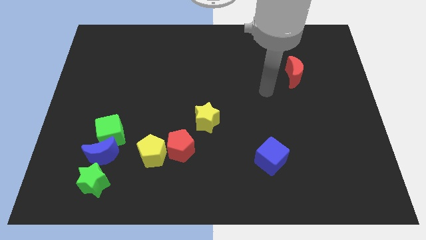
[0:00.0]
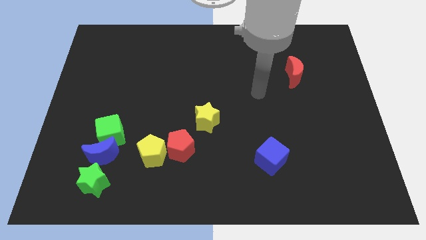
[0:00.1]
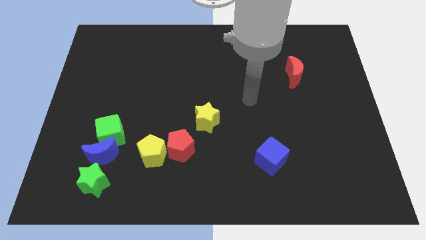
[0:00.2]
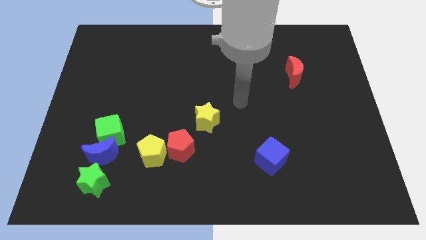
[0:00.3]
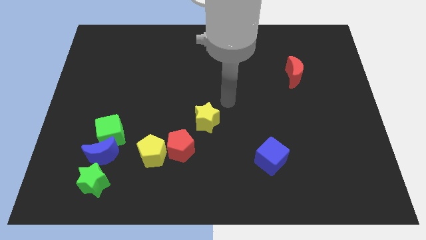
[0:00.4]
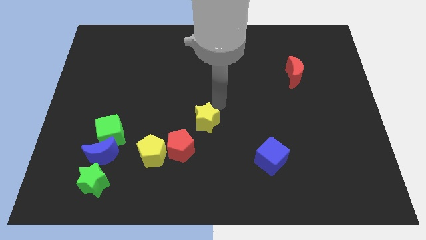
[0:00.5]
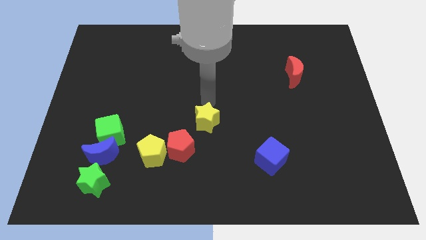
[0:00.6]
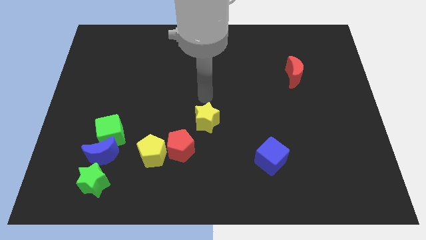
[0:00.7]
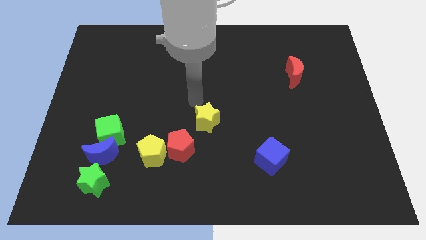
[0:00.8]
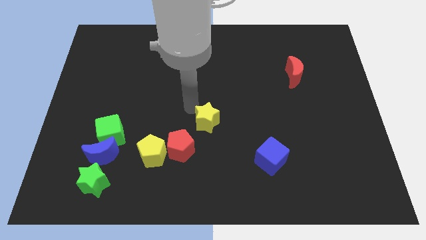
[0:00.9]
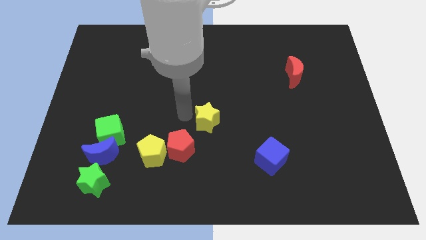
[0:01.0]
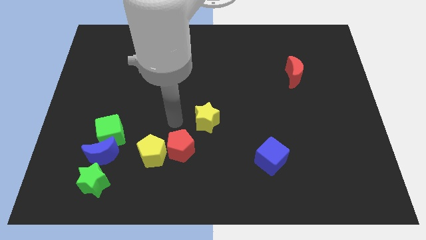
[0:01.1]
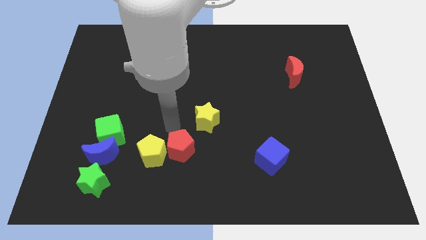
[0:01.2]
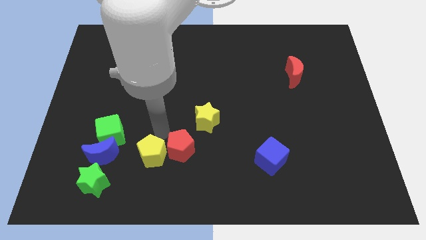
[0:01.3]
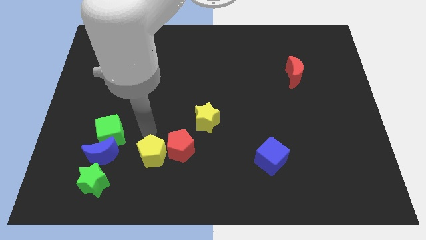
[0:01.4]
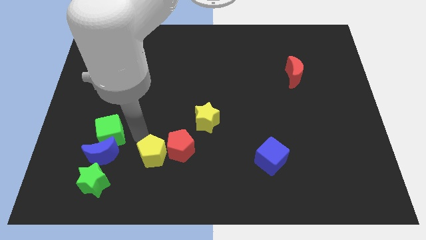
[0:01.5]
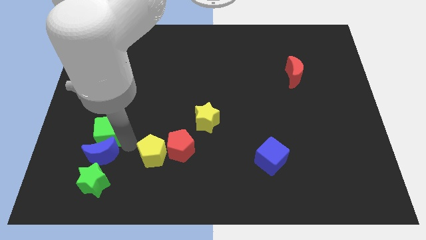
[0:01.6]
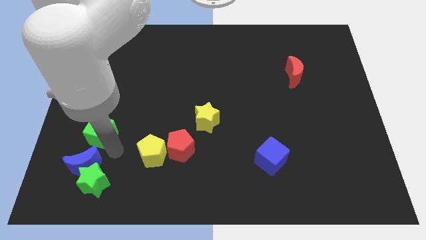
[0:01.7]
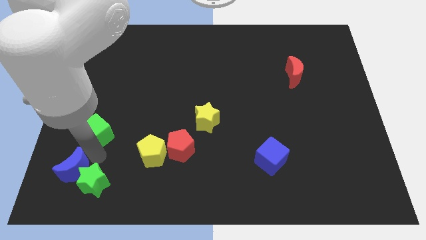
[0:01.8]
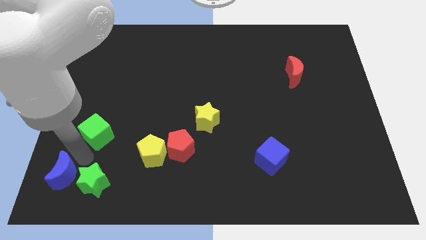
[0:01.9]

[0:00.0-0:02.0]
separate the green cube from the blue moon

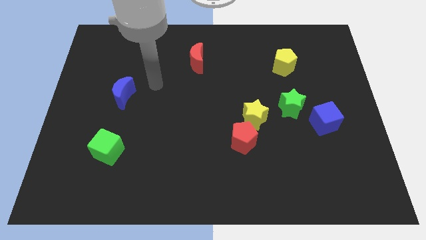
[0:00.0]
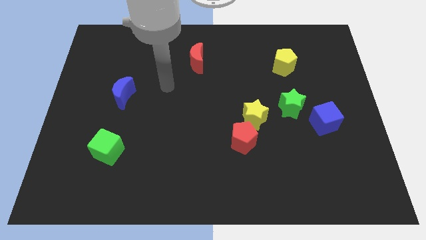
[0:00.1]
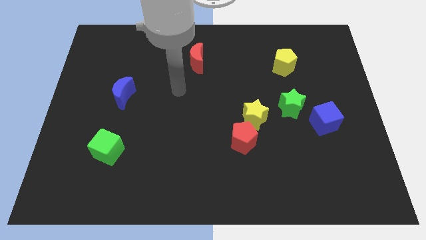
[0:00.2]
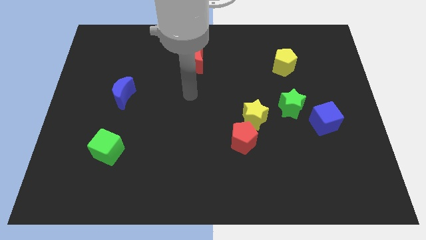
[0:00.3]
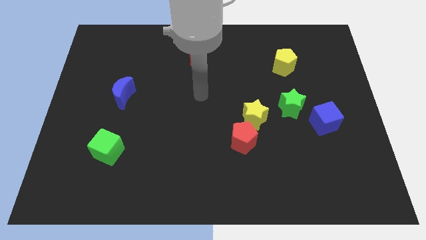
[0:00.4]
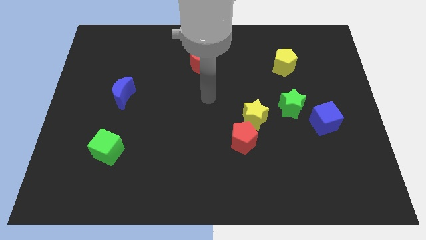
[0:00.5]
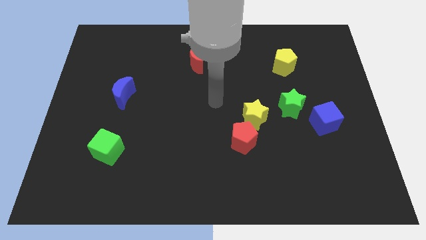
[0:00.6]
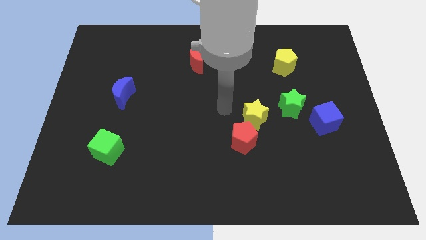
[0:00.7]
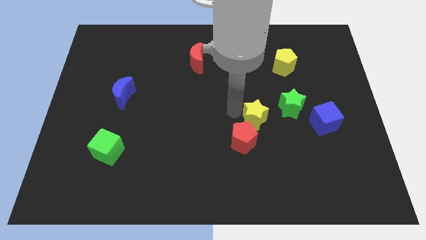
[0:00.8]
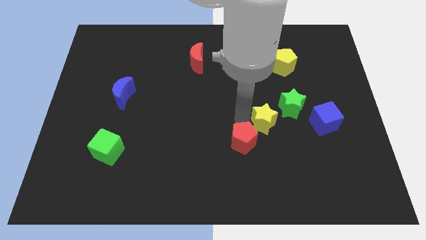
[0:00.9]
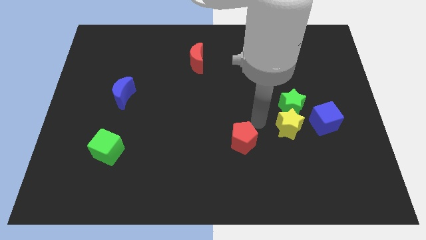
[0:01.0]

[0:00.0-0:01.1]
pull the red pentagon apart from the yellow star

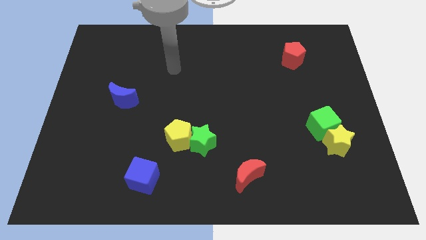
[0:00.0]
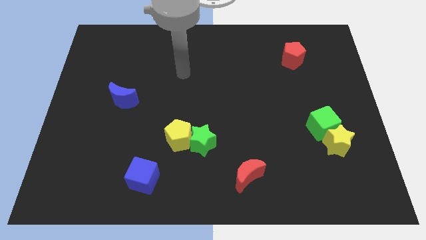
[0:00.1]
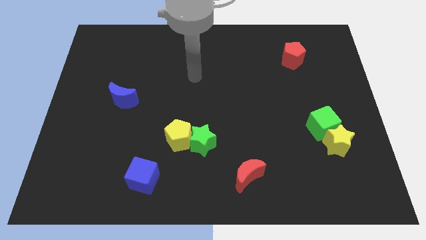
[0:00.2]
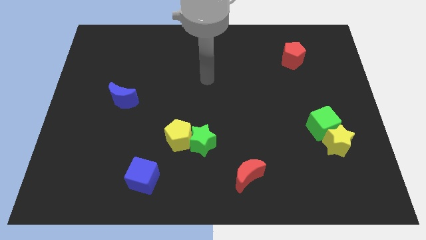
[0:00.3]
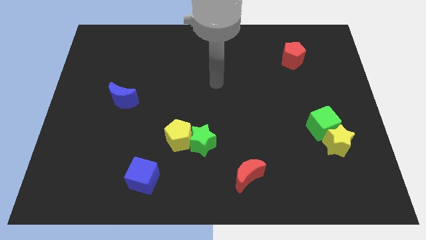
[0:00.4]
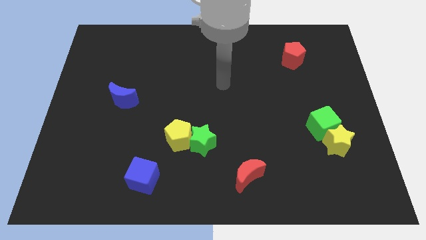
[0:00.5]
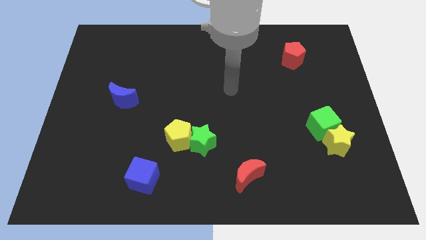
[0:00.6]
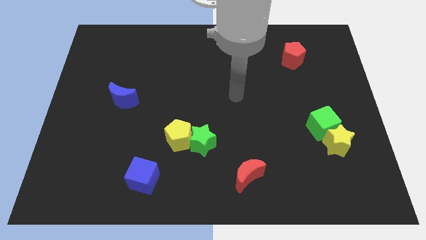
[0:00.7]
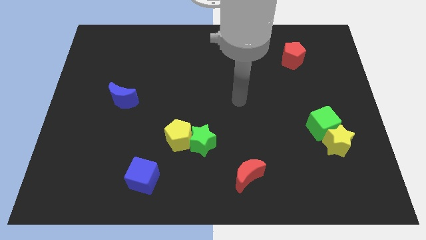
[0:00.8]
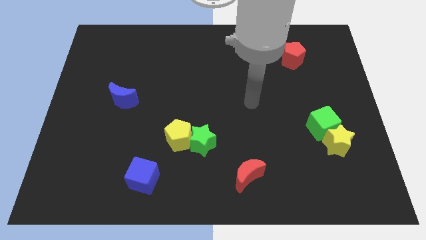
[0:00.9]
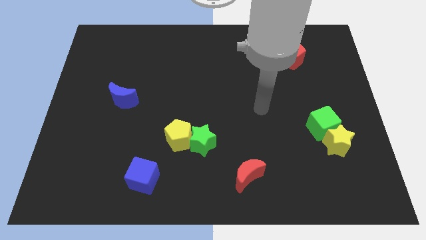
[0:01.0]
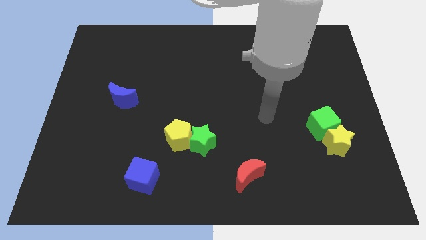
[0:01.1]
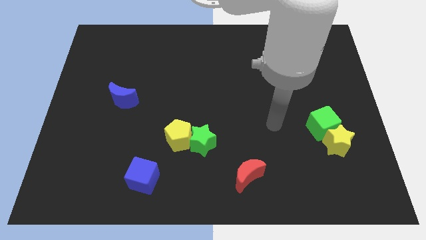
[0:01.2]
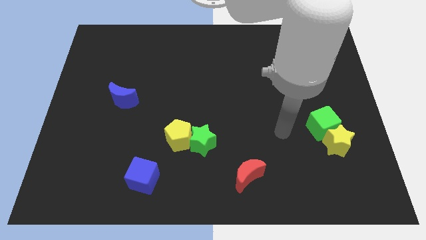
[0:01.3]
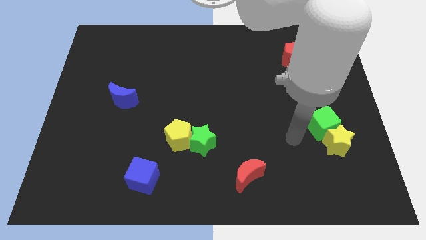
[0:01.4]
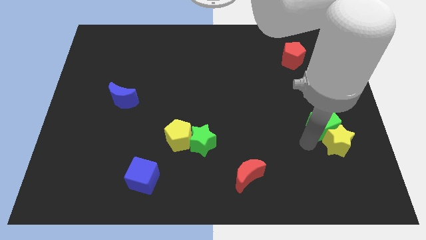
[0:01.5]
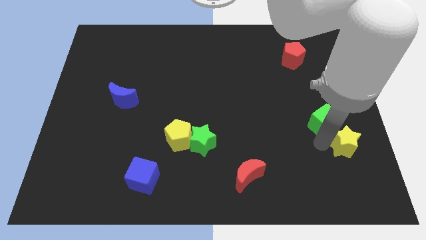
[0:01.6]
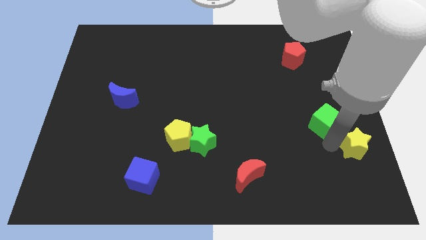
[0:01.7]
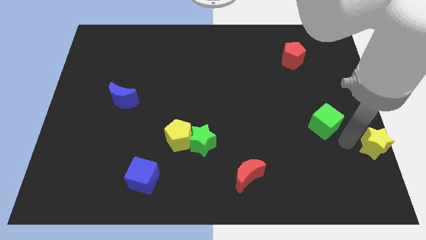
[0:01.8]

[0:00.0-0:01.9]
move the green cube away from the yellow star

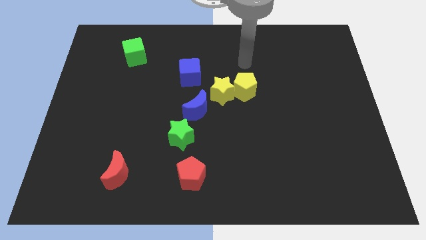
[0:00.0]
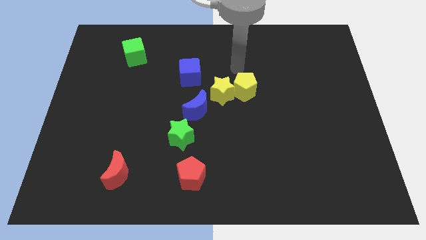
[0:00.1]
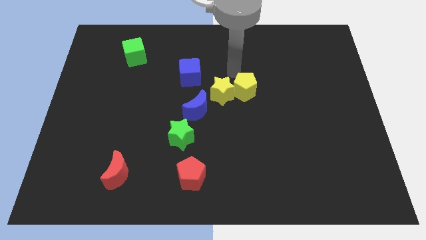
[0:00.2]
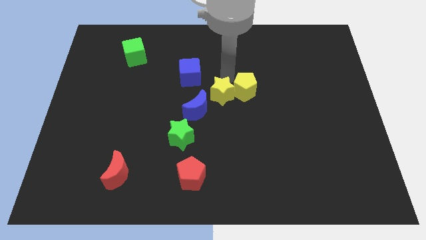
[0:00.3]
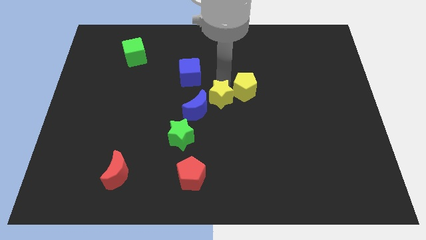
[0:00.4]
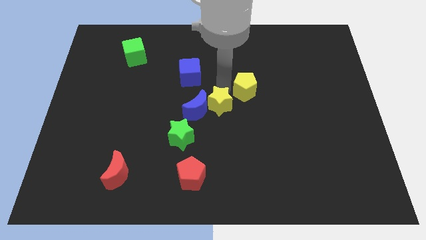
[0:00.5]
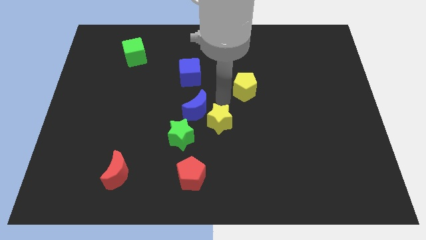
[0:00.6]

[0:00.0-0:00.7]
pull the yellow pentagon apart from the yellow star

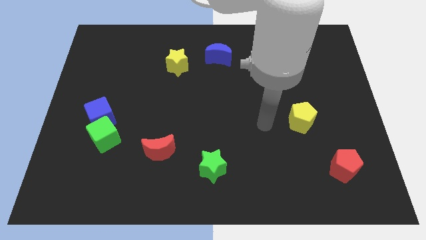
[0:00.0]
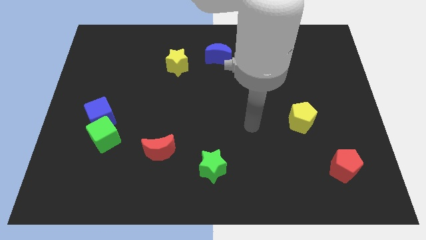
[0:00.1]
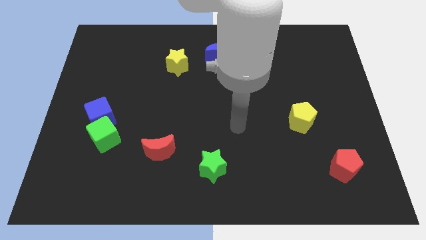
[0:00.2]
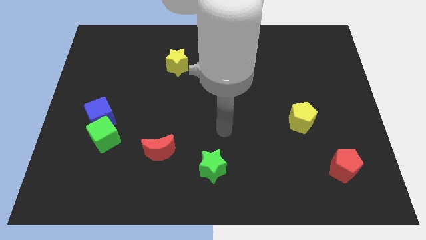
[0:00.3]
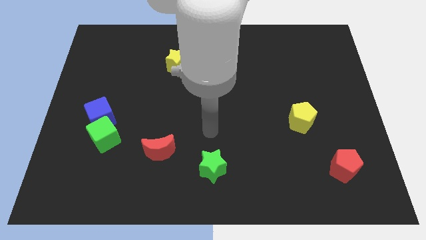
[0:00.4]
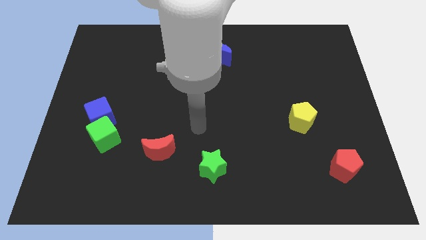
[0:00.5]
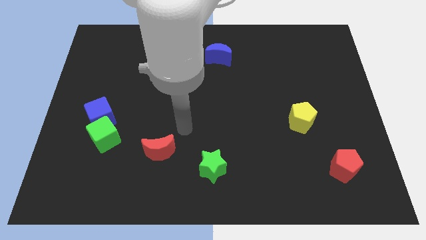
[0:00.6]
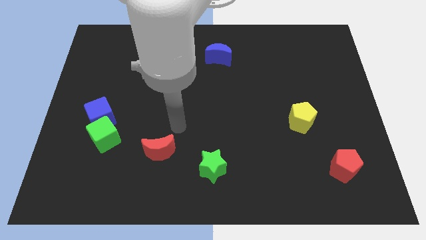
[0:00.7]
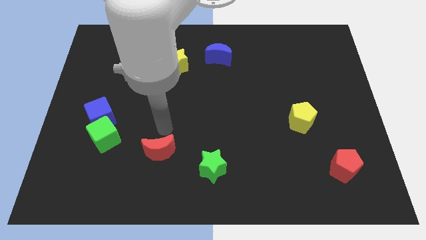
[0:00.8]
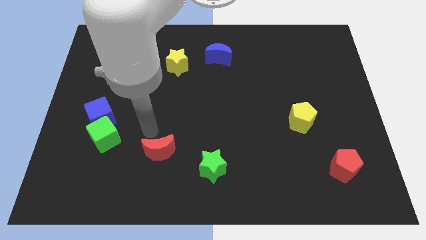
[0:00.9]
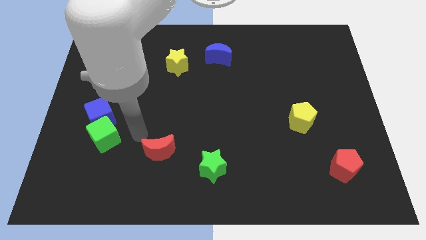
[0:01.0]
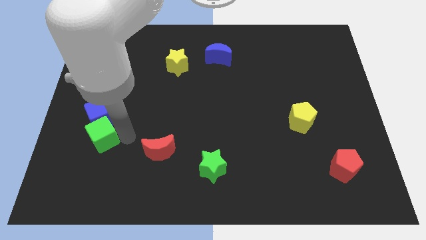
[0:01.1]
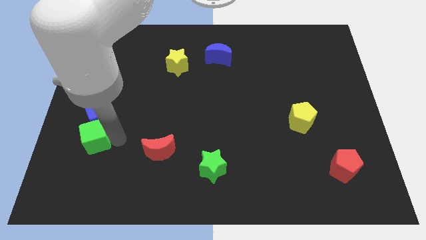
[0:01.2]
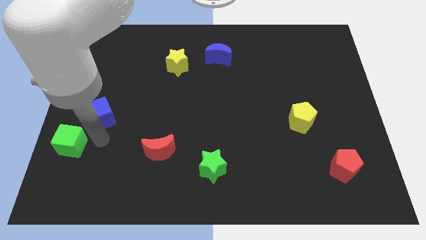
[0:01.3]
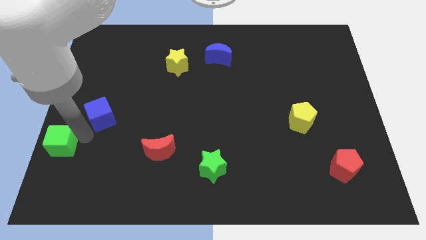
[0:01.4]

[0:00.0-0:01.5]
pull the blue cube apart from the green cube

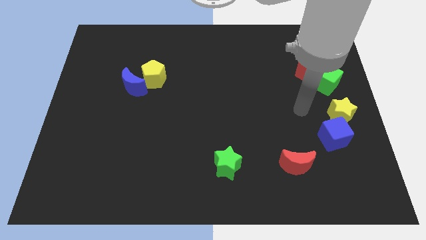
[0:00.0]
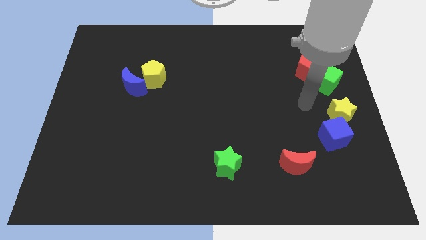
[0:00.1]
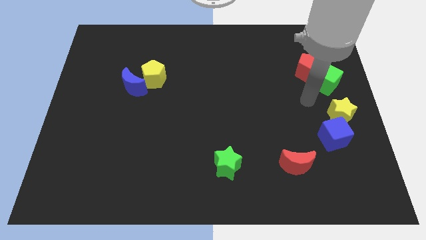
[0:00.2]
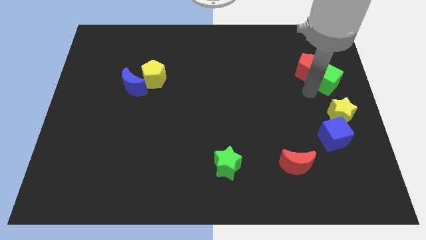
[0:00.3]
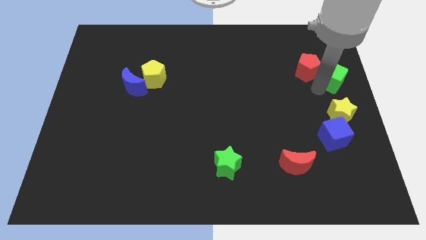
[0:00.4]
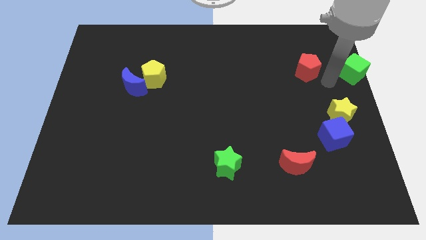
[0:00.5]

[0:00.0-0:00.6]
move the red pentagon away from the green cube

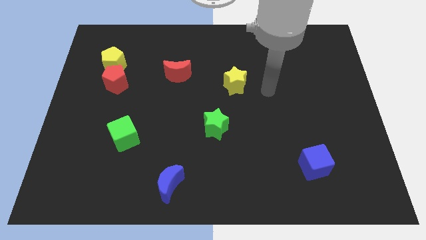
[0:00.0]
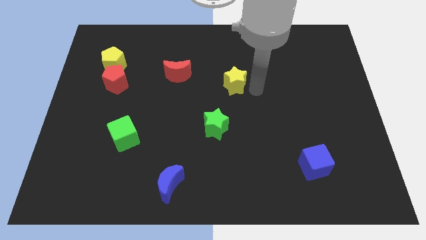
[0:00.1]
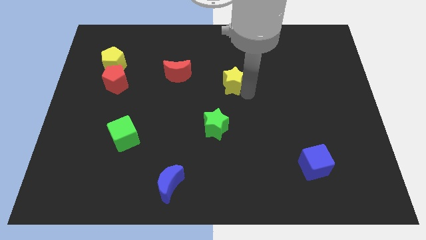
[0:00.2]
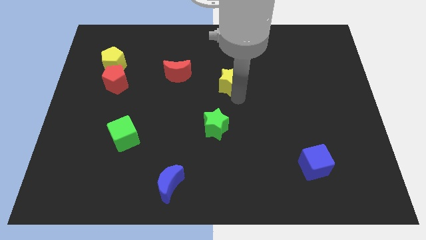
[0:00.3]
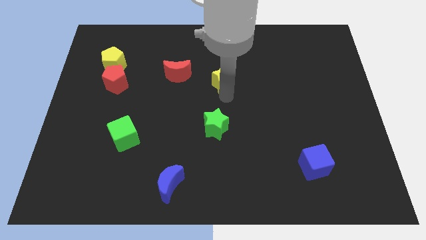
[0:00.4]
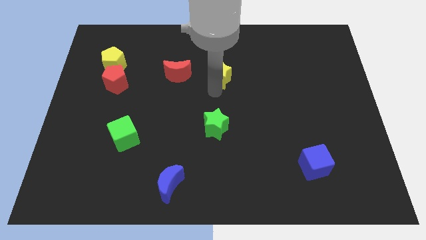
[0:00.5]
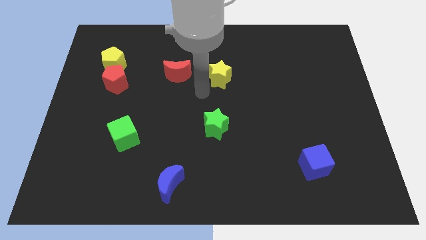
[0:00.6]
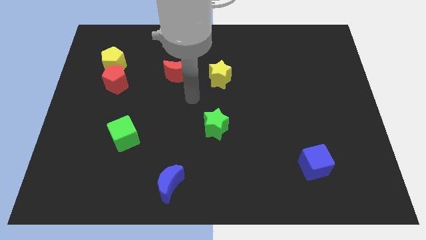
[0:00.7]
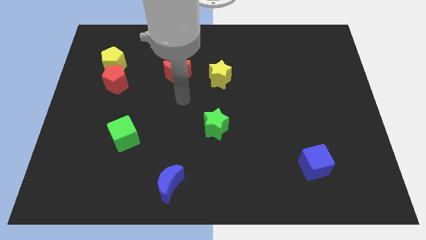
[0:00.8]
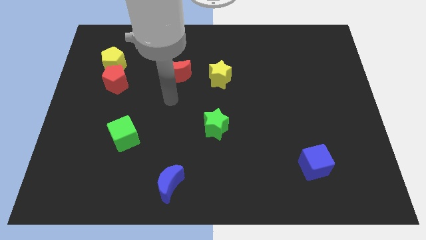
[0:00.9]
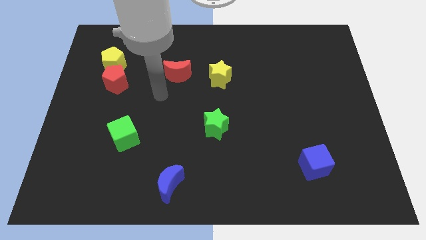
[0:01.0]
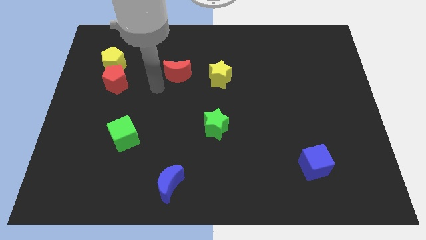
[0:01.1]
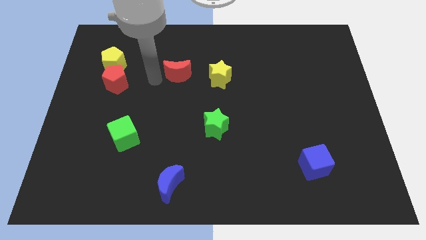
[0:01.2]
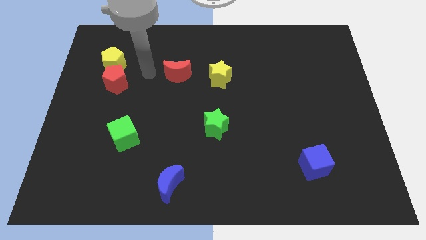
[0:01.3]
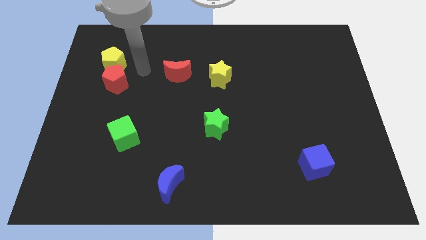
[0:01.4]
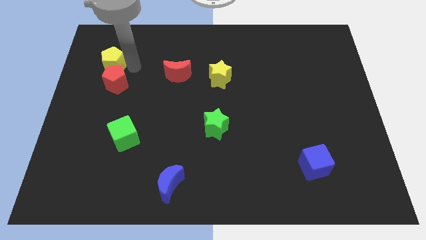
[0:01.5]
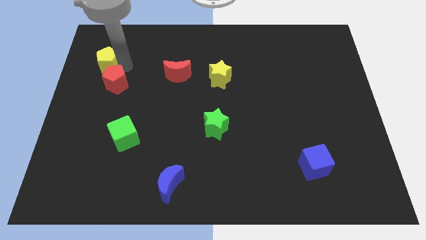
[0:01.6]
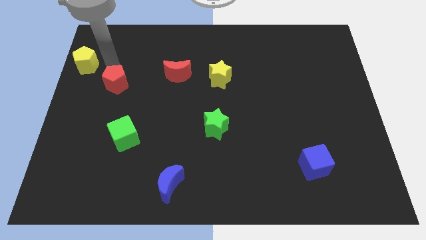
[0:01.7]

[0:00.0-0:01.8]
move the red pentagon away from the yellow pentagon
